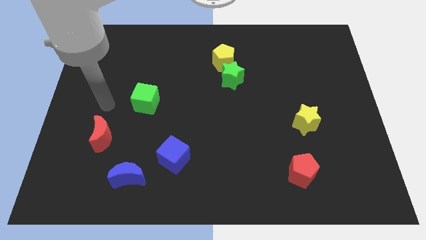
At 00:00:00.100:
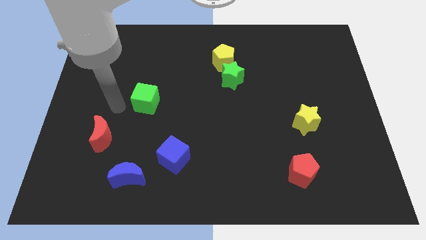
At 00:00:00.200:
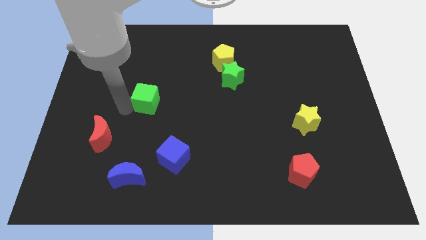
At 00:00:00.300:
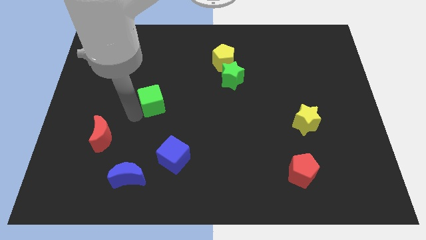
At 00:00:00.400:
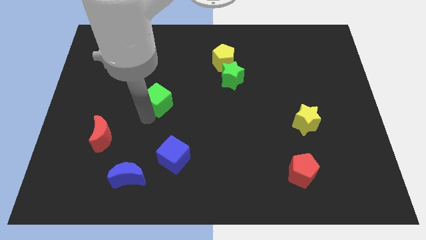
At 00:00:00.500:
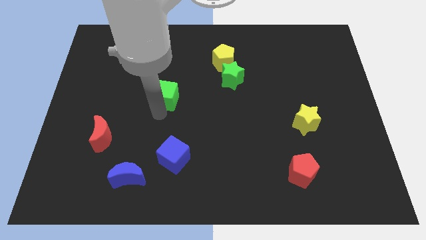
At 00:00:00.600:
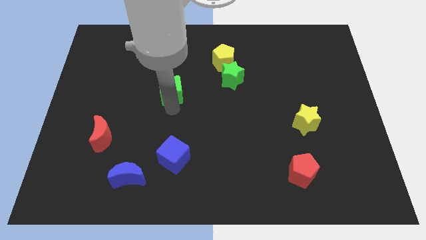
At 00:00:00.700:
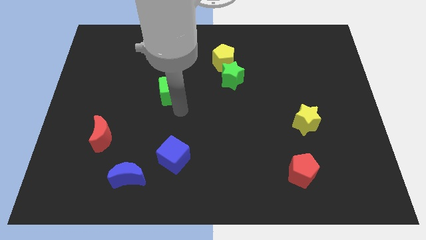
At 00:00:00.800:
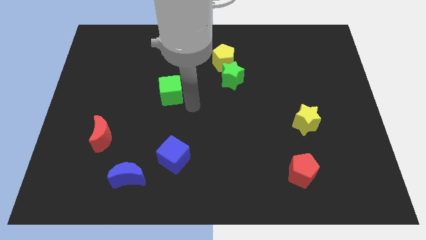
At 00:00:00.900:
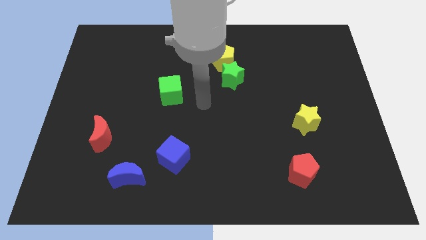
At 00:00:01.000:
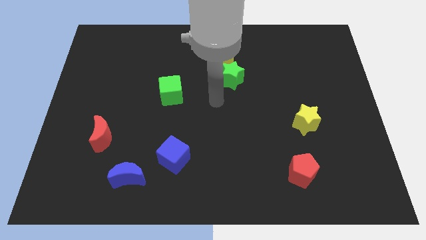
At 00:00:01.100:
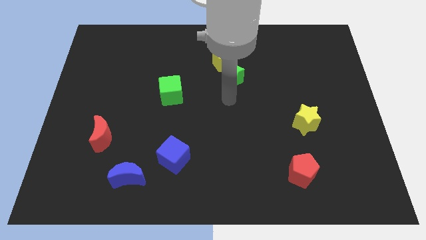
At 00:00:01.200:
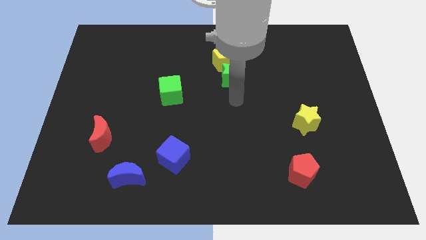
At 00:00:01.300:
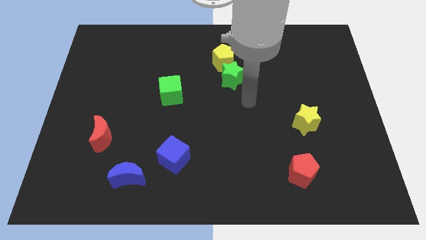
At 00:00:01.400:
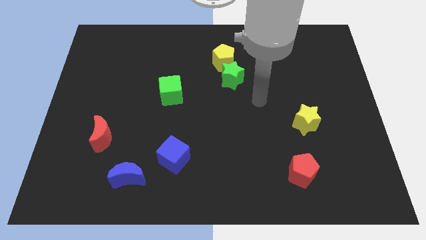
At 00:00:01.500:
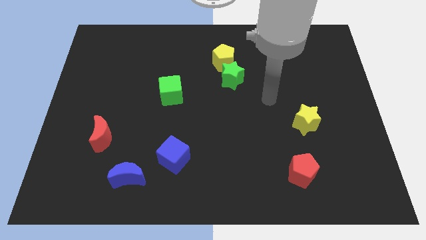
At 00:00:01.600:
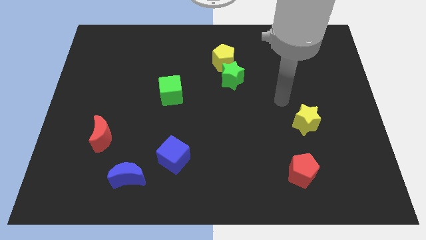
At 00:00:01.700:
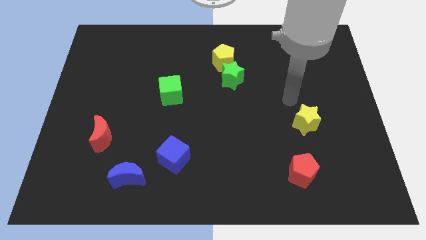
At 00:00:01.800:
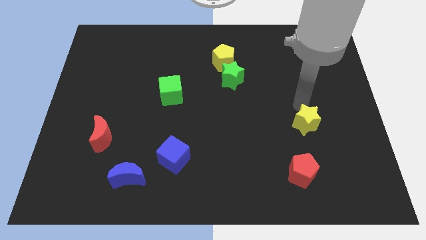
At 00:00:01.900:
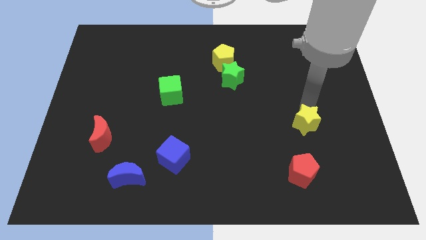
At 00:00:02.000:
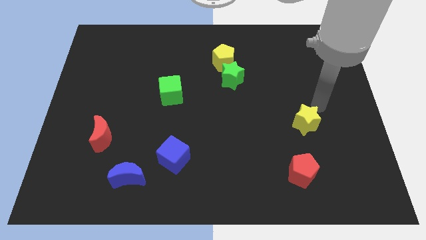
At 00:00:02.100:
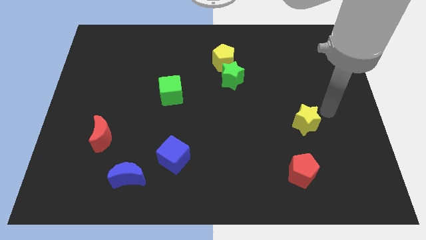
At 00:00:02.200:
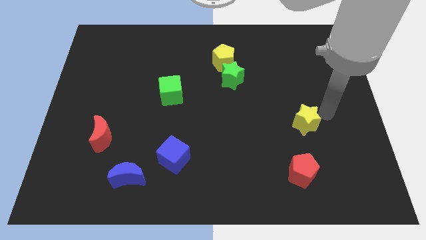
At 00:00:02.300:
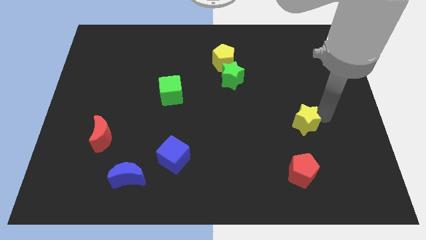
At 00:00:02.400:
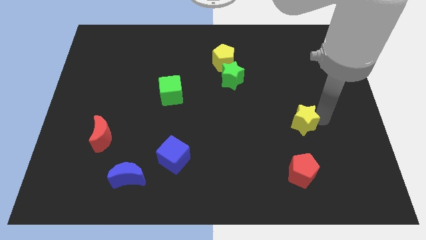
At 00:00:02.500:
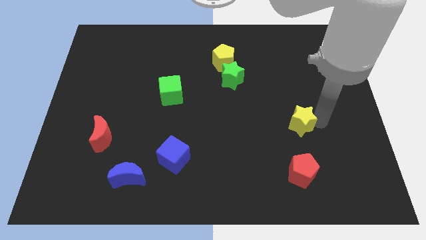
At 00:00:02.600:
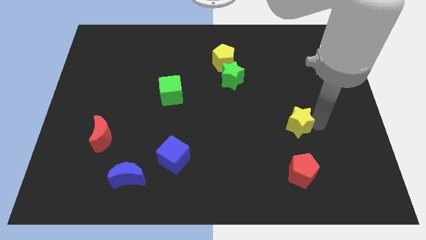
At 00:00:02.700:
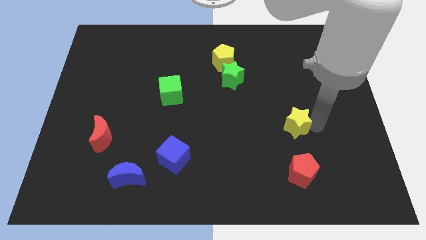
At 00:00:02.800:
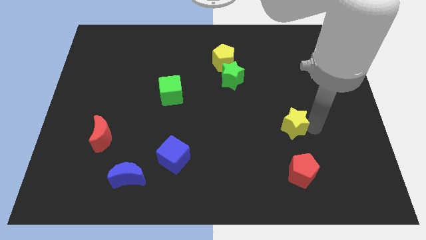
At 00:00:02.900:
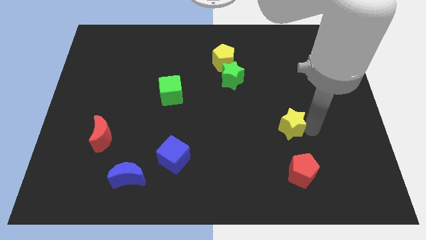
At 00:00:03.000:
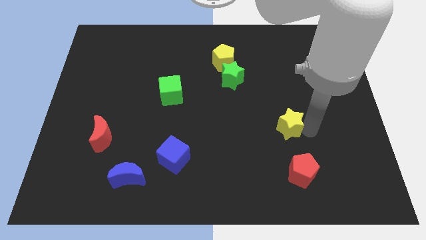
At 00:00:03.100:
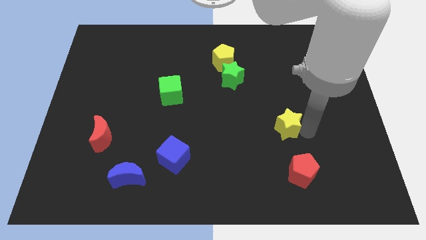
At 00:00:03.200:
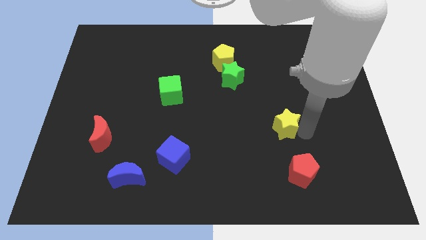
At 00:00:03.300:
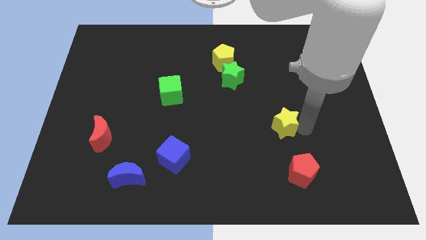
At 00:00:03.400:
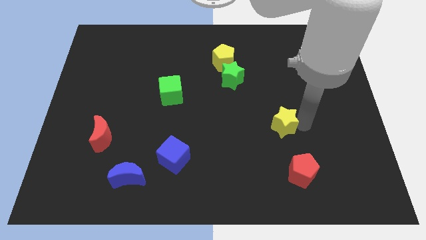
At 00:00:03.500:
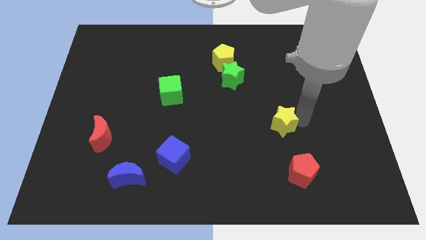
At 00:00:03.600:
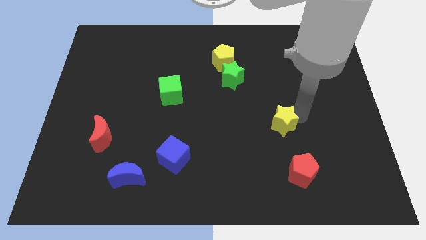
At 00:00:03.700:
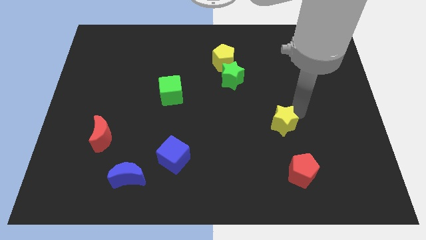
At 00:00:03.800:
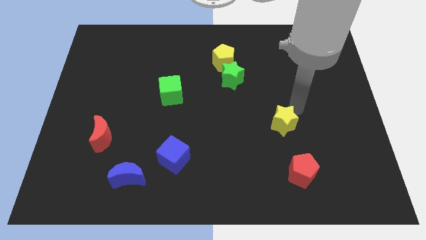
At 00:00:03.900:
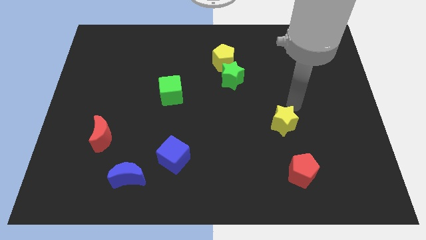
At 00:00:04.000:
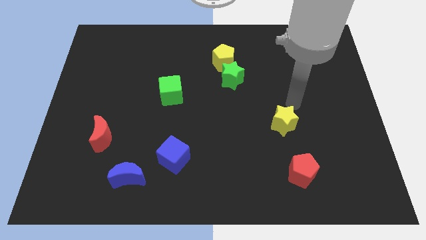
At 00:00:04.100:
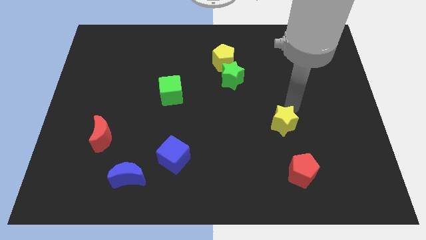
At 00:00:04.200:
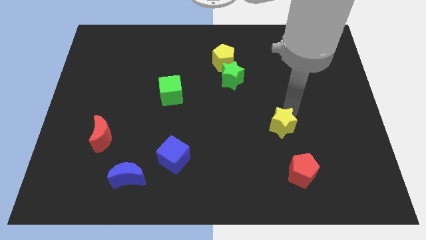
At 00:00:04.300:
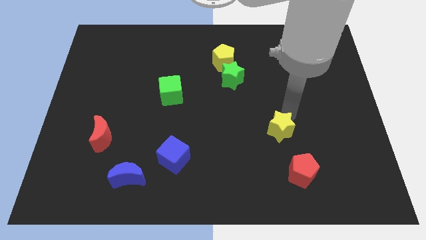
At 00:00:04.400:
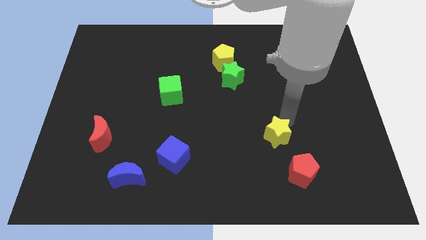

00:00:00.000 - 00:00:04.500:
slightly push the yellow star down and then left

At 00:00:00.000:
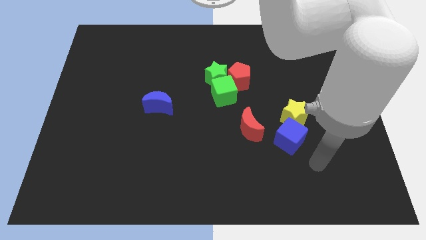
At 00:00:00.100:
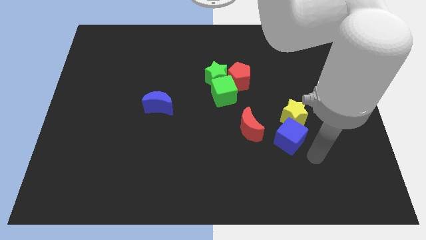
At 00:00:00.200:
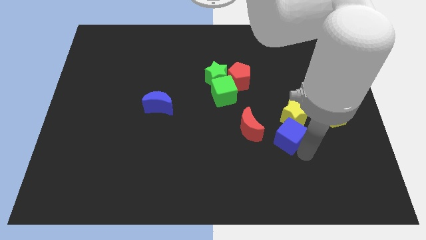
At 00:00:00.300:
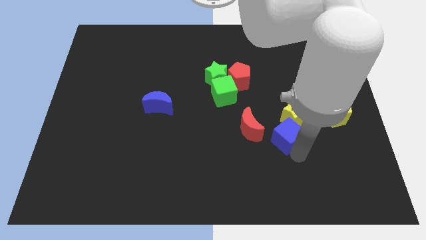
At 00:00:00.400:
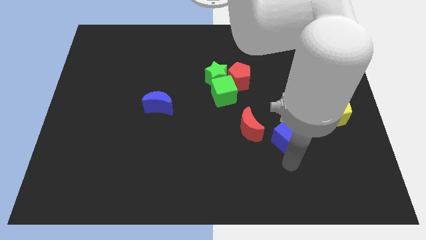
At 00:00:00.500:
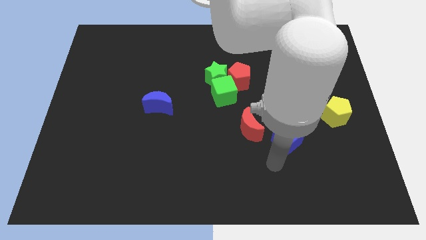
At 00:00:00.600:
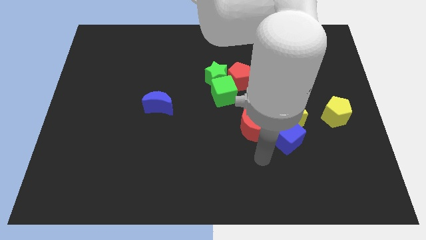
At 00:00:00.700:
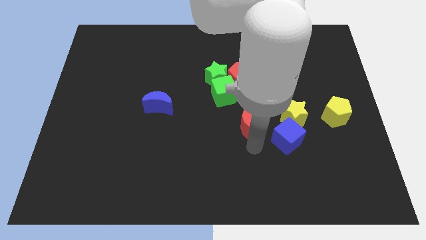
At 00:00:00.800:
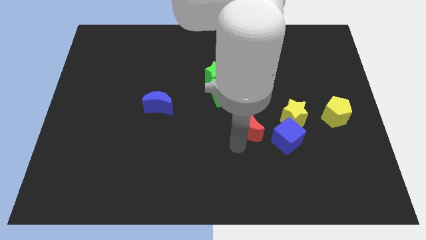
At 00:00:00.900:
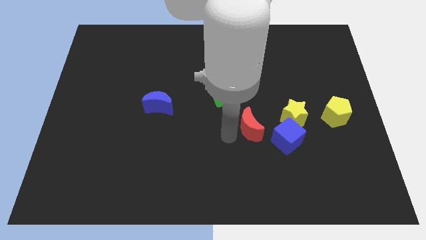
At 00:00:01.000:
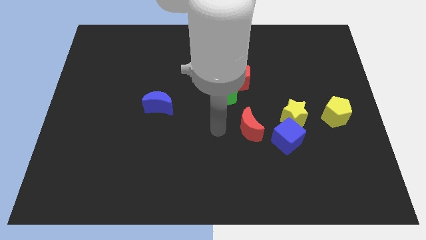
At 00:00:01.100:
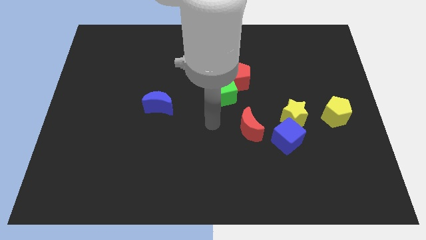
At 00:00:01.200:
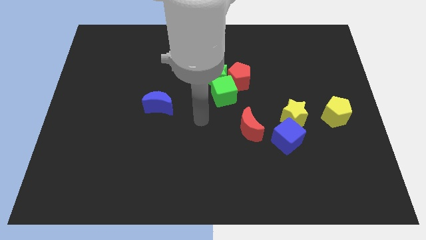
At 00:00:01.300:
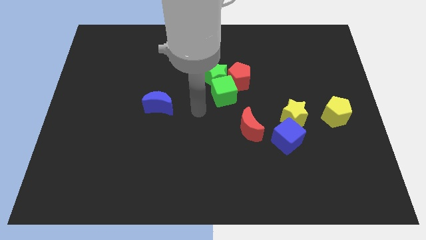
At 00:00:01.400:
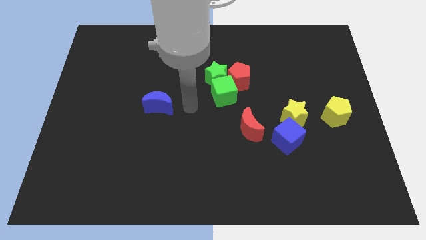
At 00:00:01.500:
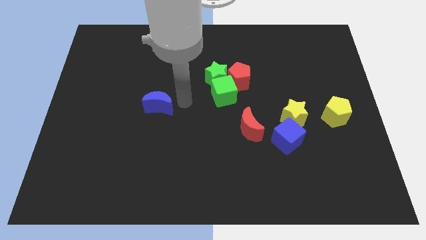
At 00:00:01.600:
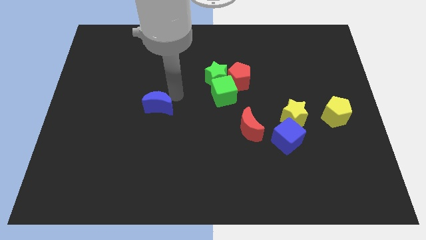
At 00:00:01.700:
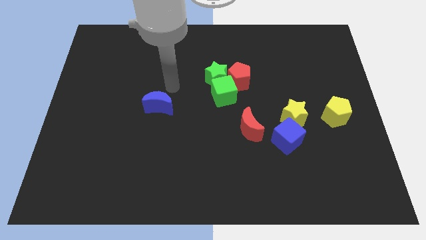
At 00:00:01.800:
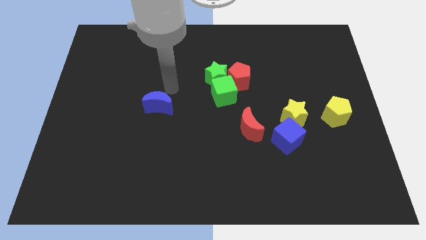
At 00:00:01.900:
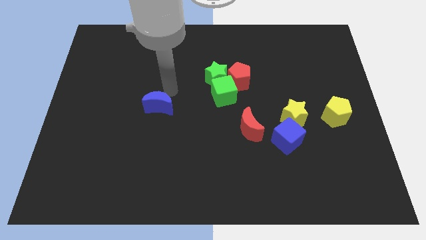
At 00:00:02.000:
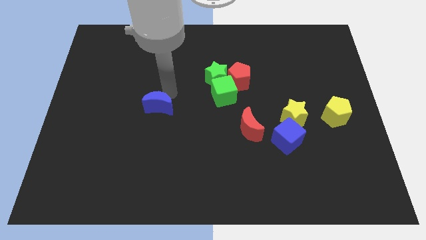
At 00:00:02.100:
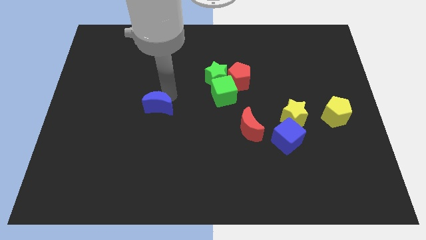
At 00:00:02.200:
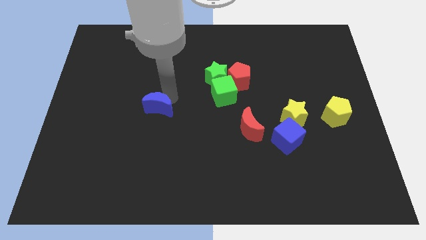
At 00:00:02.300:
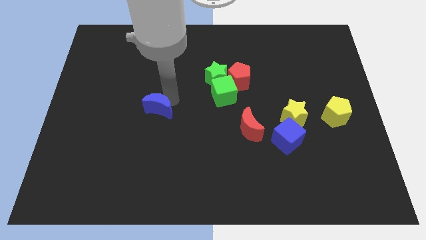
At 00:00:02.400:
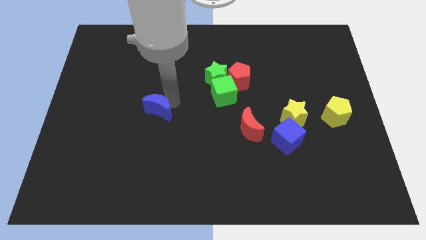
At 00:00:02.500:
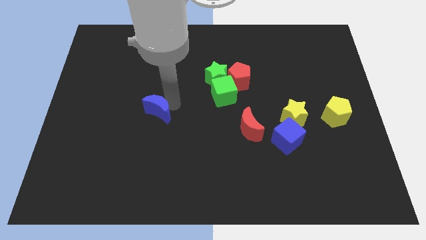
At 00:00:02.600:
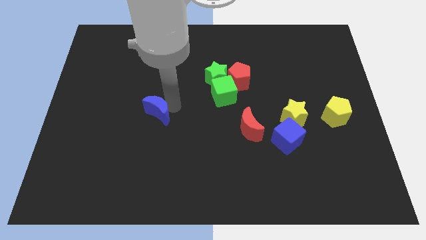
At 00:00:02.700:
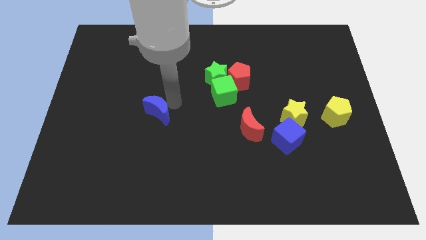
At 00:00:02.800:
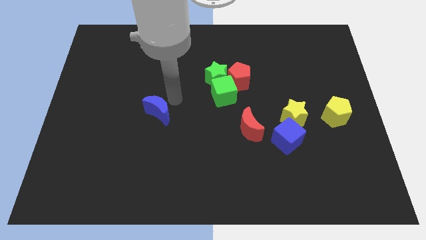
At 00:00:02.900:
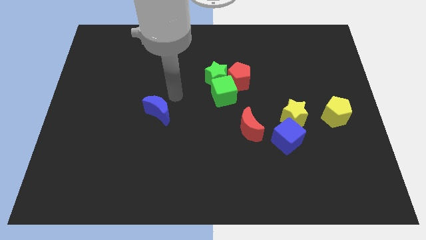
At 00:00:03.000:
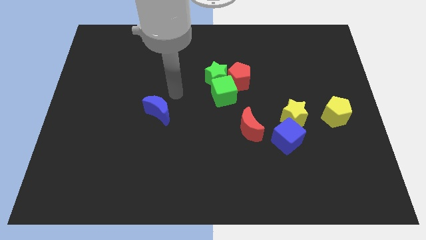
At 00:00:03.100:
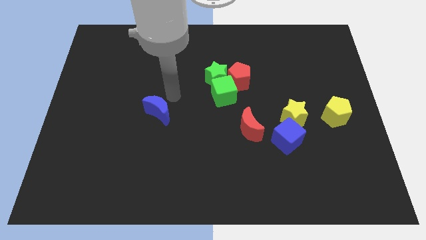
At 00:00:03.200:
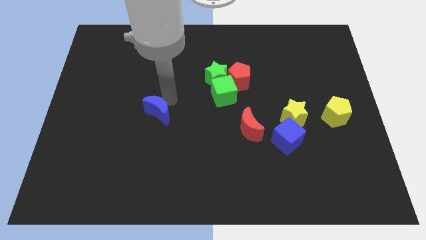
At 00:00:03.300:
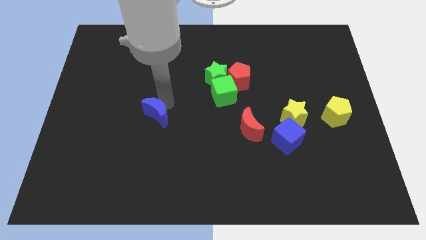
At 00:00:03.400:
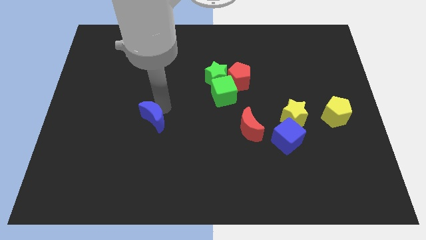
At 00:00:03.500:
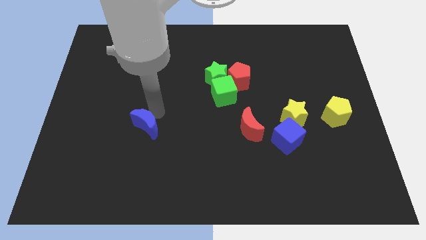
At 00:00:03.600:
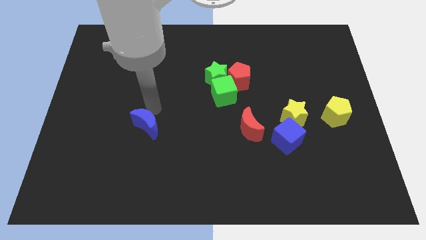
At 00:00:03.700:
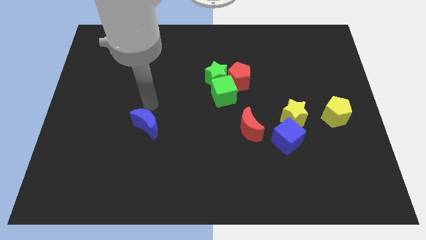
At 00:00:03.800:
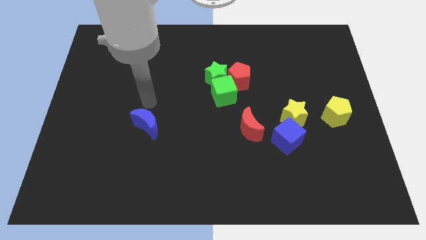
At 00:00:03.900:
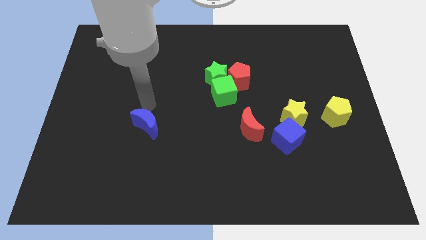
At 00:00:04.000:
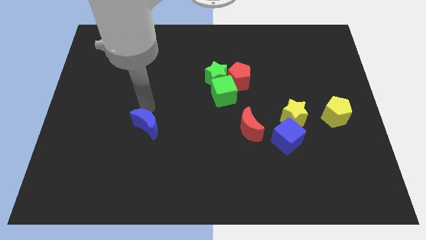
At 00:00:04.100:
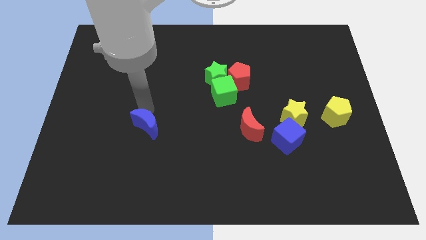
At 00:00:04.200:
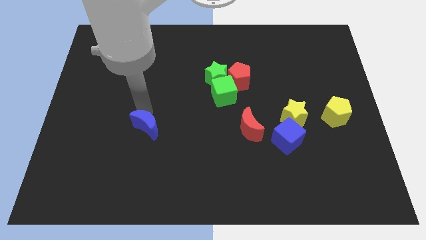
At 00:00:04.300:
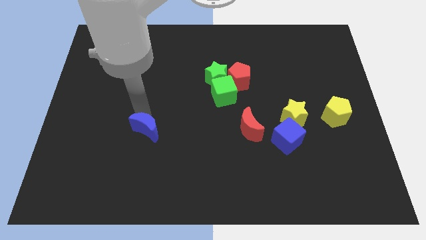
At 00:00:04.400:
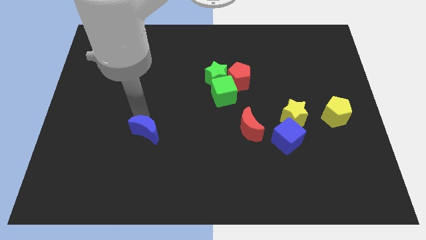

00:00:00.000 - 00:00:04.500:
slide the blue moon downwards a little bit
